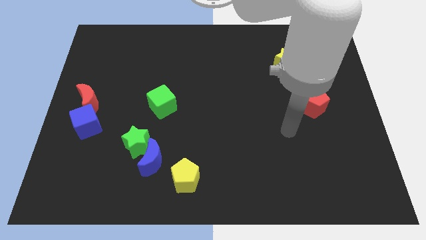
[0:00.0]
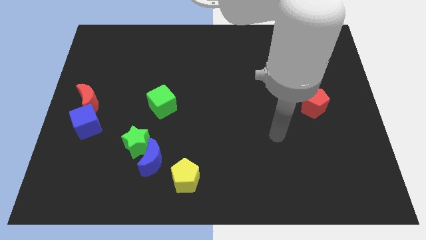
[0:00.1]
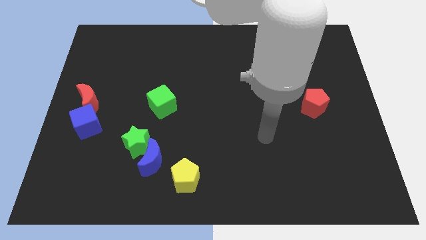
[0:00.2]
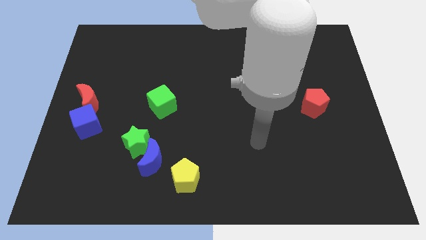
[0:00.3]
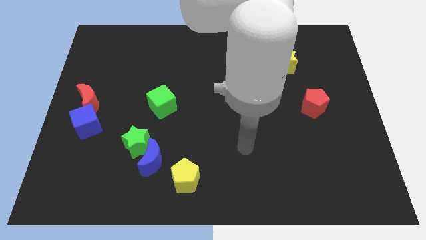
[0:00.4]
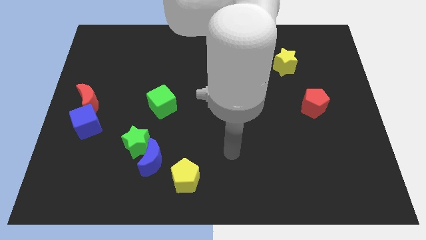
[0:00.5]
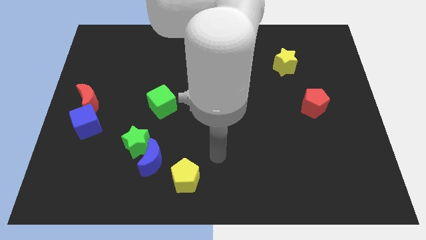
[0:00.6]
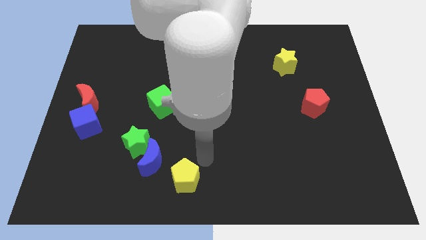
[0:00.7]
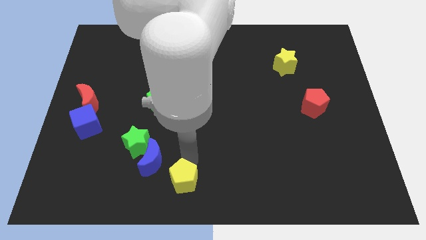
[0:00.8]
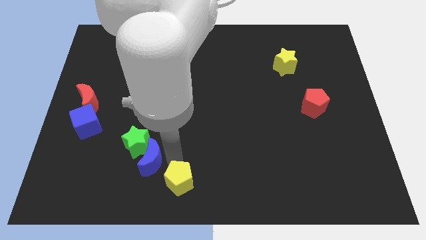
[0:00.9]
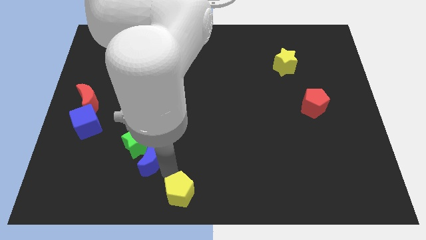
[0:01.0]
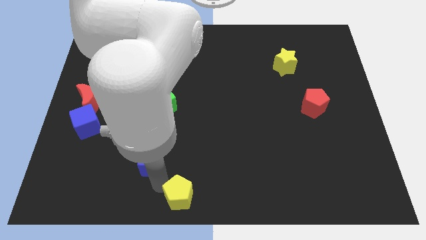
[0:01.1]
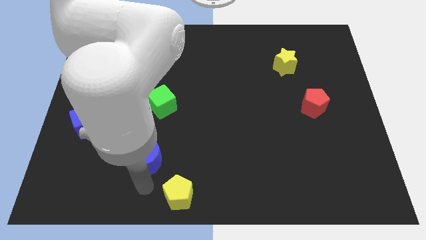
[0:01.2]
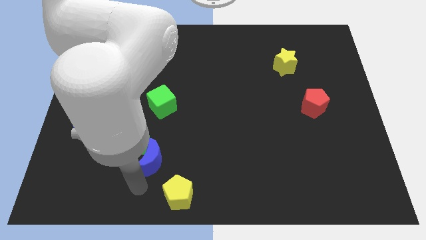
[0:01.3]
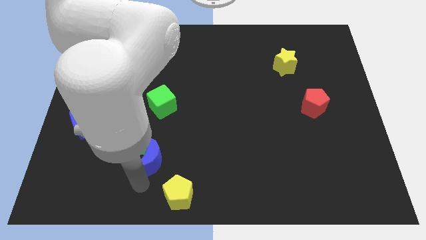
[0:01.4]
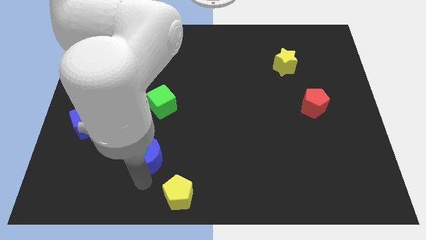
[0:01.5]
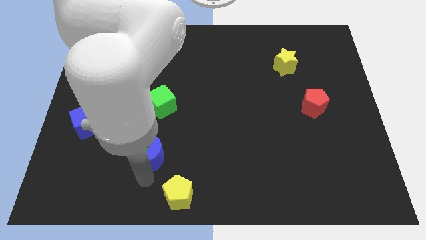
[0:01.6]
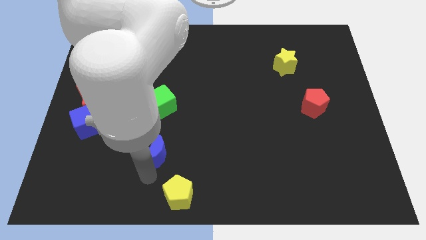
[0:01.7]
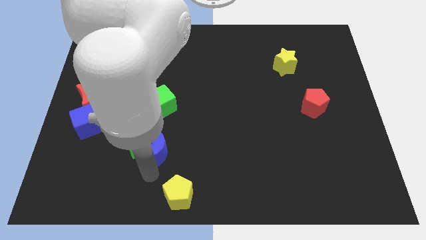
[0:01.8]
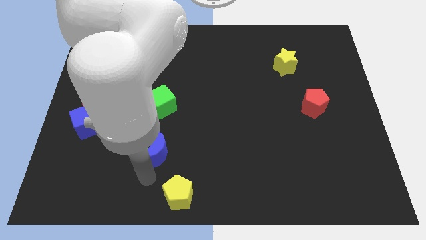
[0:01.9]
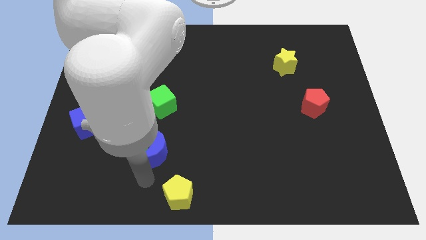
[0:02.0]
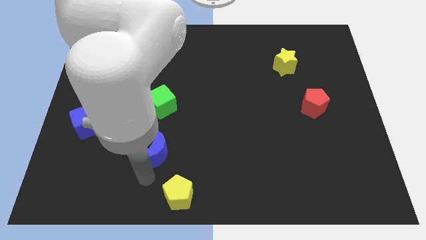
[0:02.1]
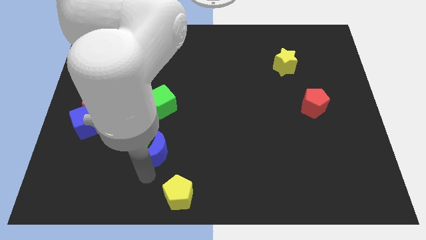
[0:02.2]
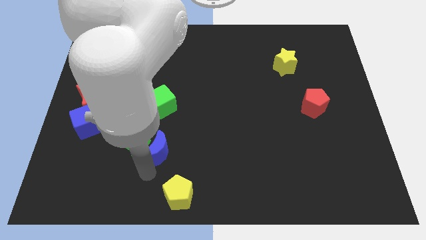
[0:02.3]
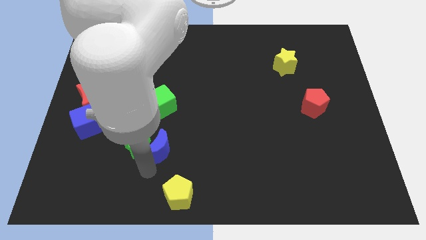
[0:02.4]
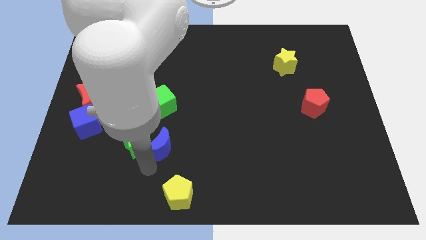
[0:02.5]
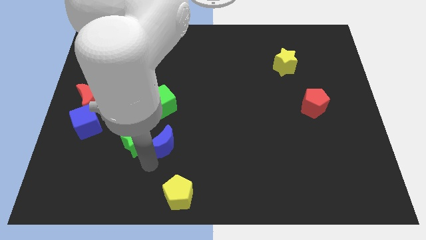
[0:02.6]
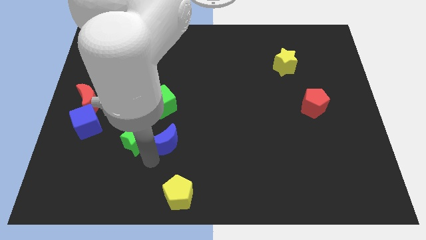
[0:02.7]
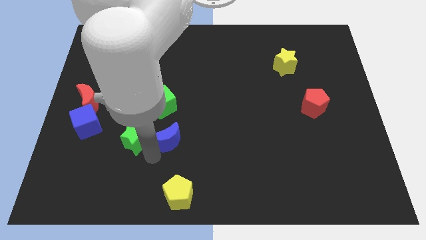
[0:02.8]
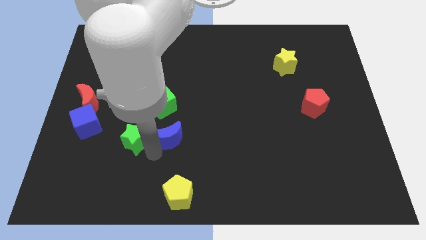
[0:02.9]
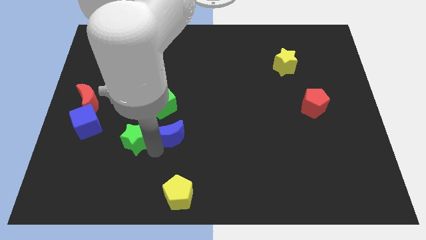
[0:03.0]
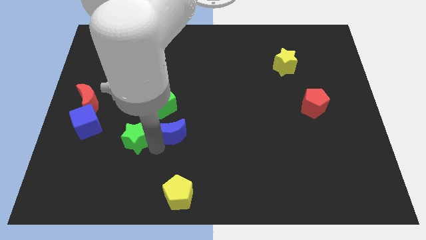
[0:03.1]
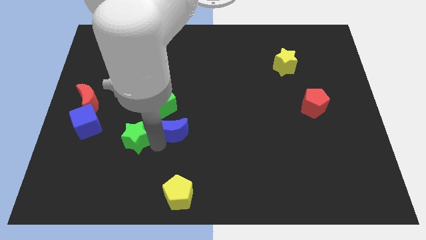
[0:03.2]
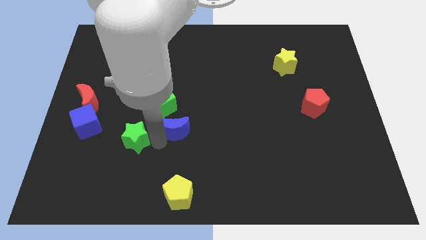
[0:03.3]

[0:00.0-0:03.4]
slightly slide the blue moon up

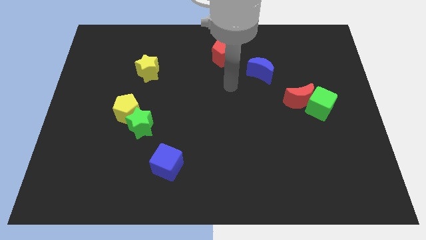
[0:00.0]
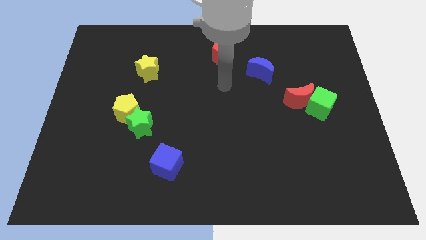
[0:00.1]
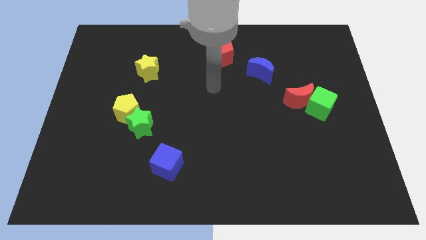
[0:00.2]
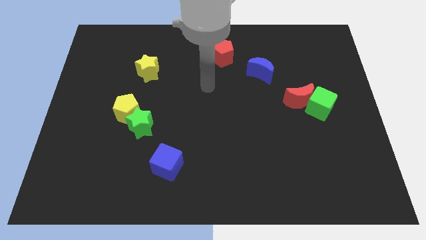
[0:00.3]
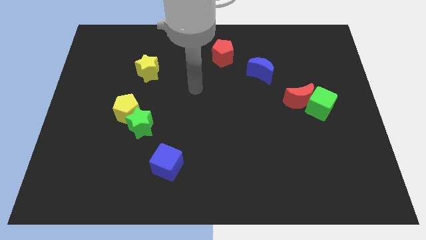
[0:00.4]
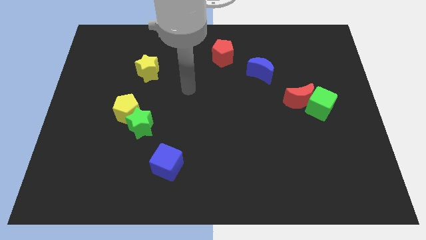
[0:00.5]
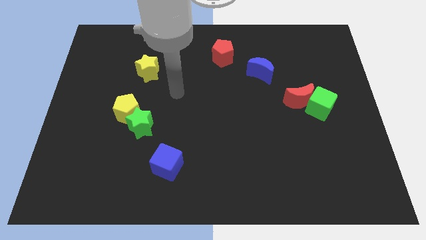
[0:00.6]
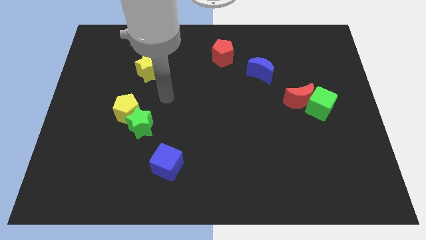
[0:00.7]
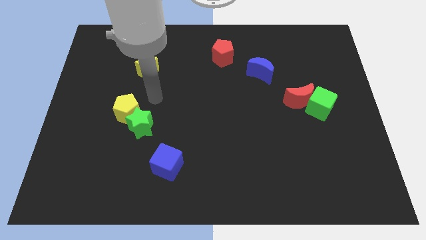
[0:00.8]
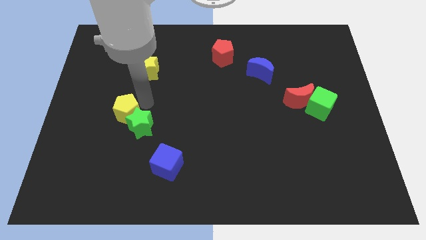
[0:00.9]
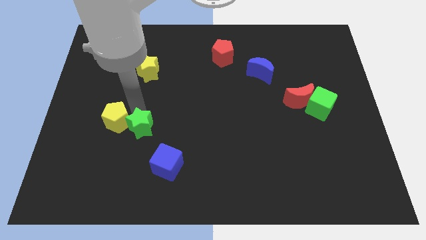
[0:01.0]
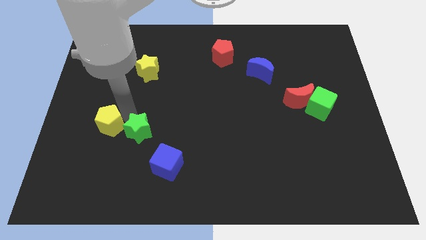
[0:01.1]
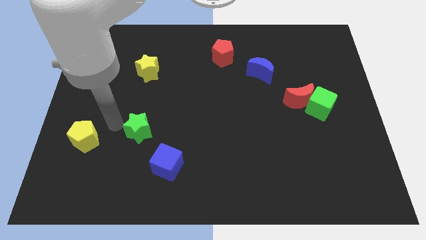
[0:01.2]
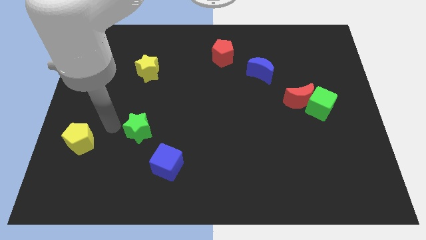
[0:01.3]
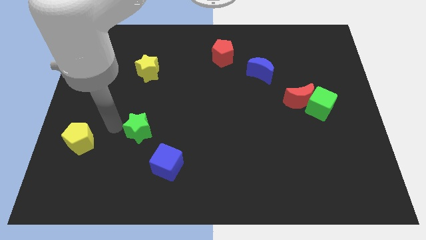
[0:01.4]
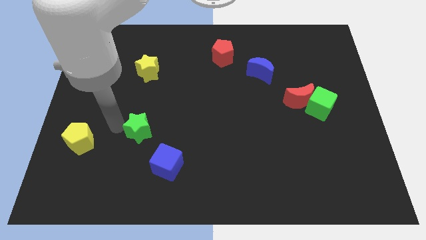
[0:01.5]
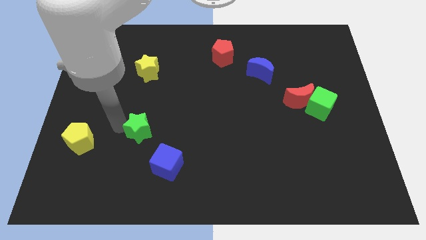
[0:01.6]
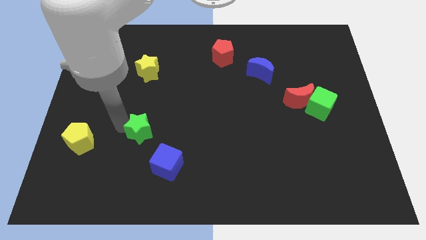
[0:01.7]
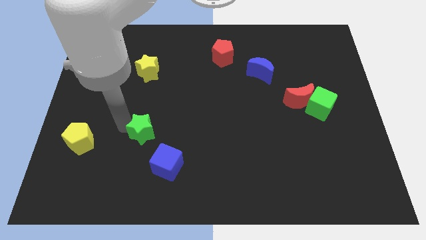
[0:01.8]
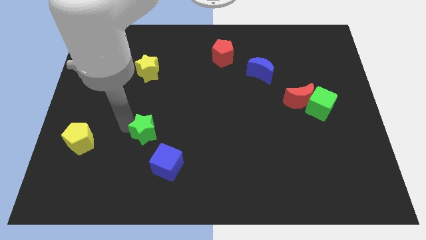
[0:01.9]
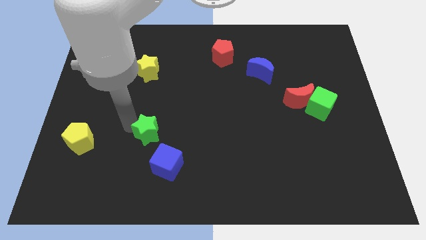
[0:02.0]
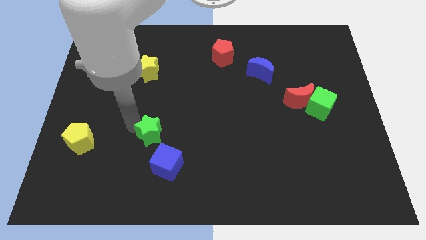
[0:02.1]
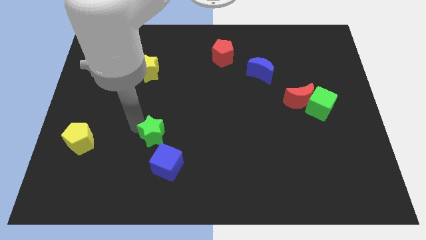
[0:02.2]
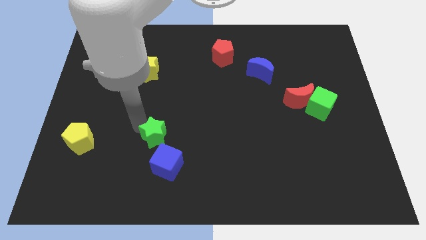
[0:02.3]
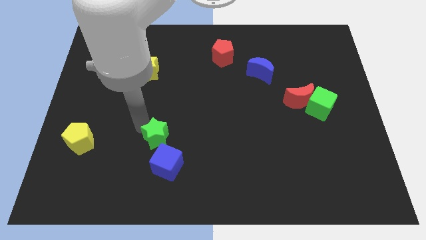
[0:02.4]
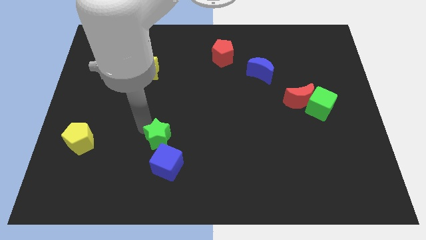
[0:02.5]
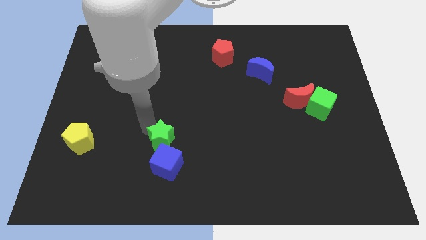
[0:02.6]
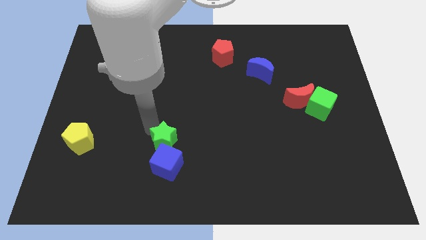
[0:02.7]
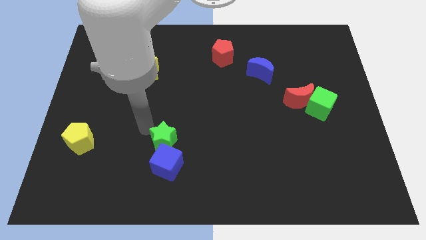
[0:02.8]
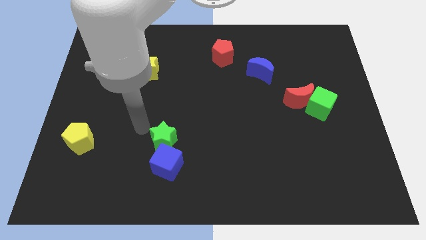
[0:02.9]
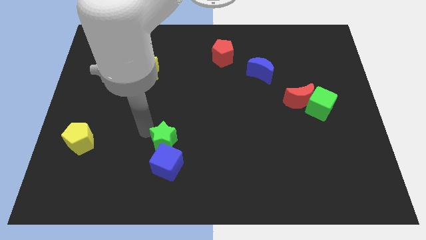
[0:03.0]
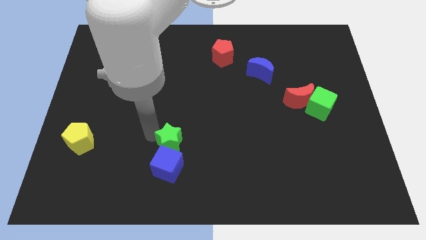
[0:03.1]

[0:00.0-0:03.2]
slightly push the green star down and right diagonally

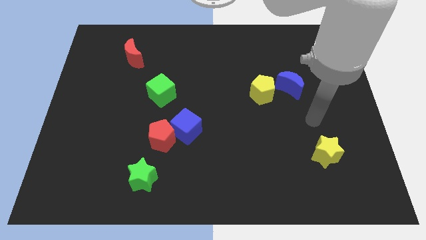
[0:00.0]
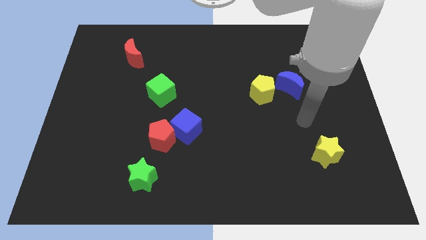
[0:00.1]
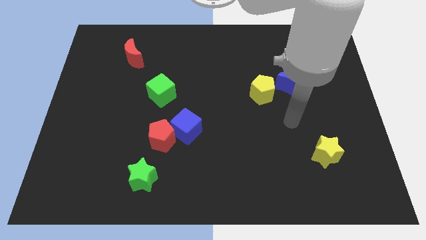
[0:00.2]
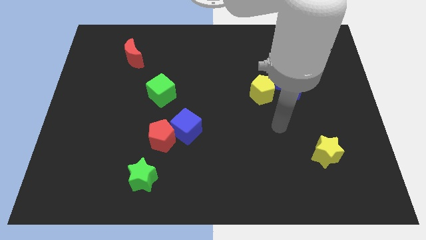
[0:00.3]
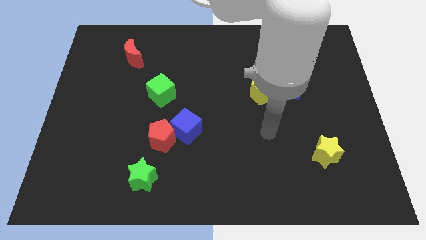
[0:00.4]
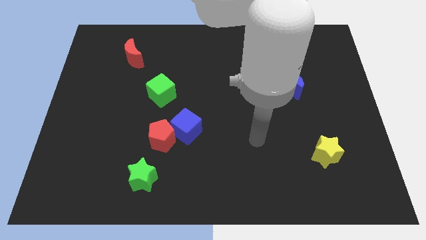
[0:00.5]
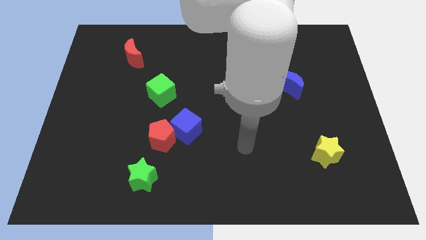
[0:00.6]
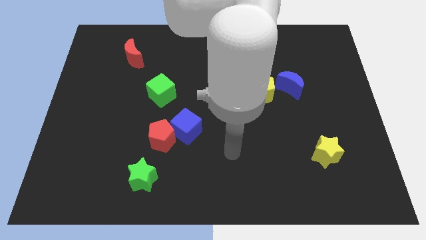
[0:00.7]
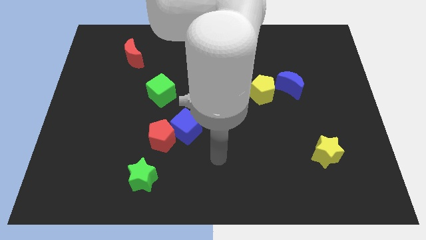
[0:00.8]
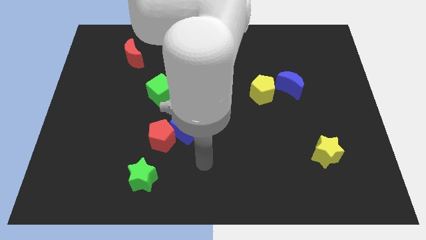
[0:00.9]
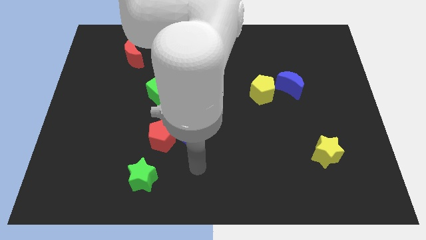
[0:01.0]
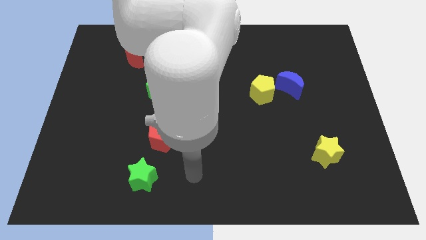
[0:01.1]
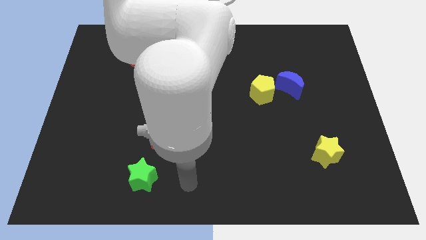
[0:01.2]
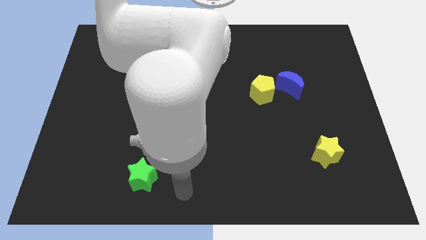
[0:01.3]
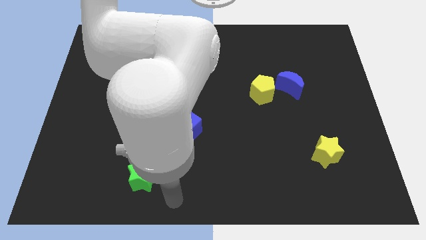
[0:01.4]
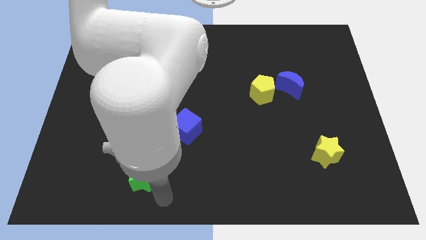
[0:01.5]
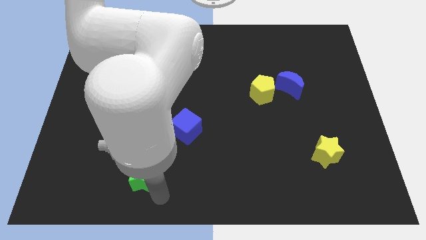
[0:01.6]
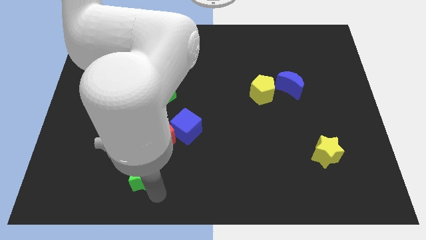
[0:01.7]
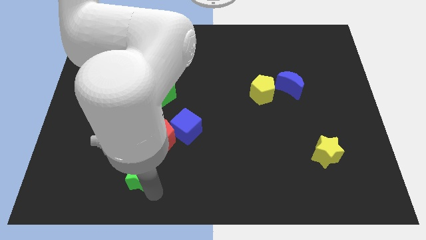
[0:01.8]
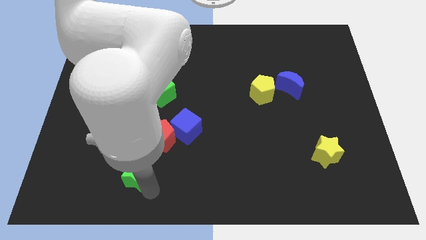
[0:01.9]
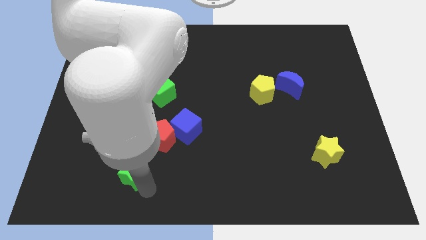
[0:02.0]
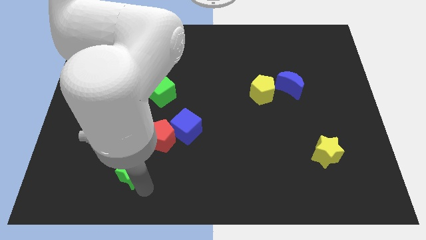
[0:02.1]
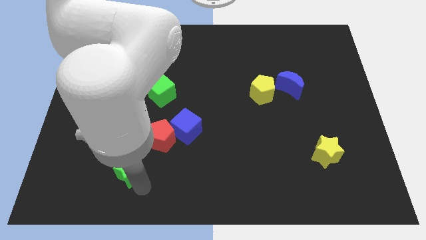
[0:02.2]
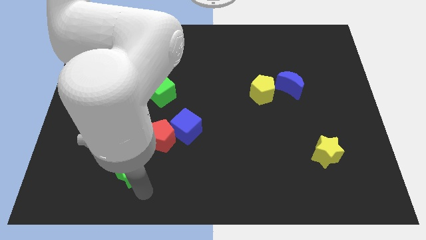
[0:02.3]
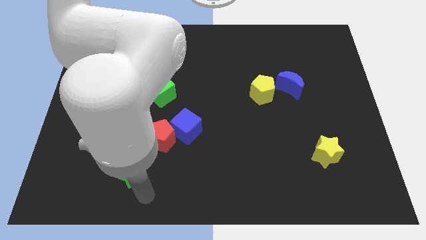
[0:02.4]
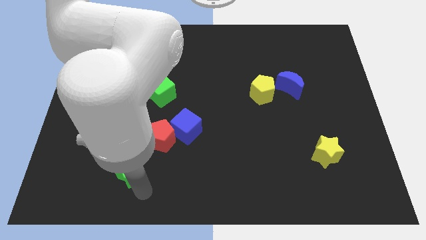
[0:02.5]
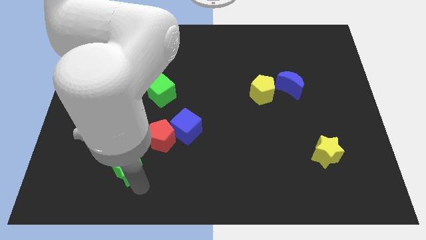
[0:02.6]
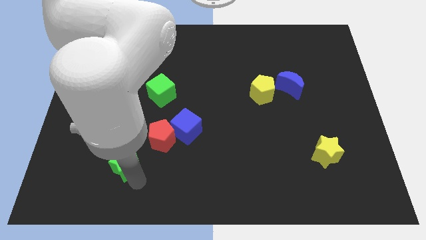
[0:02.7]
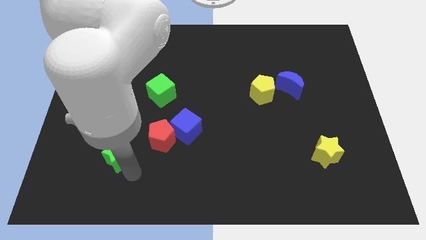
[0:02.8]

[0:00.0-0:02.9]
push the green star diagonally up and left slightly
